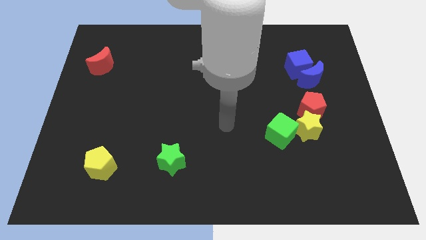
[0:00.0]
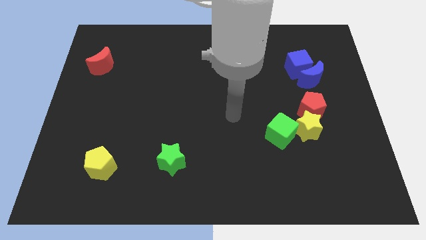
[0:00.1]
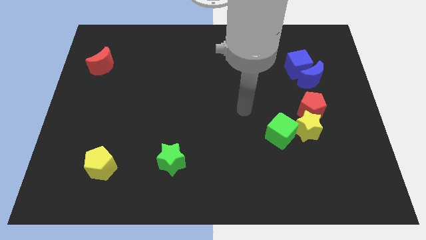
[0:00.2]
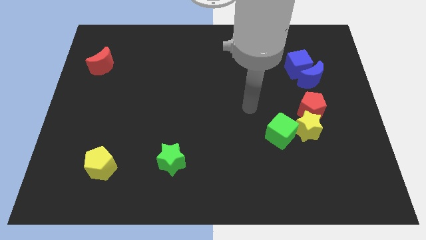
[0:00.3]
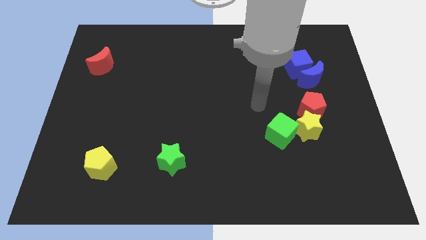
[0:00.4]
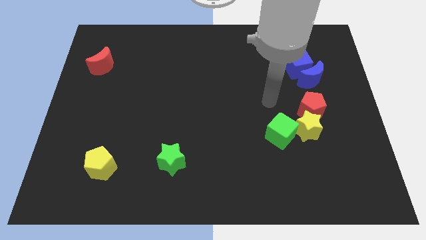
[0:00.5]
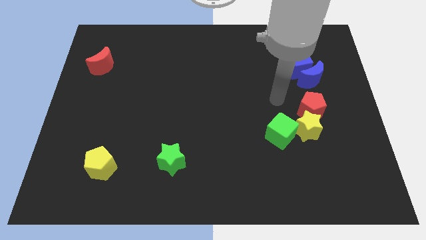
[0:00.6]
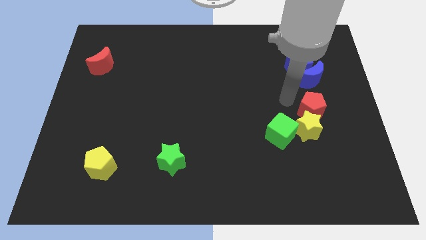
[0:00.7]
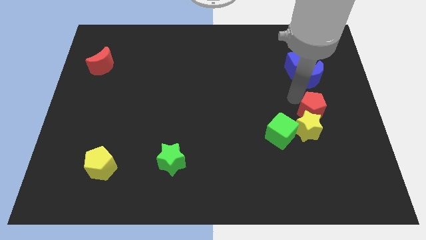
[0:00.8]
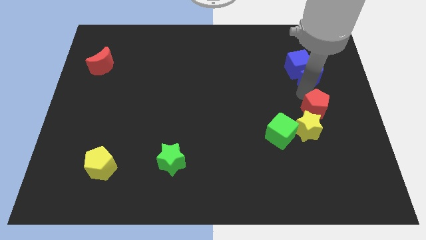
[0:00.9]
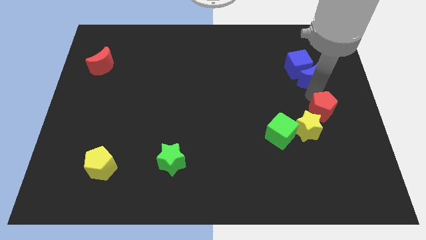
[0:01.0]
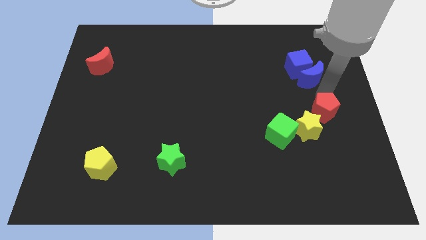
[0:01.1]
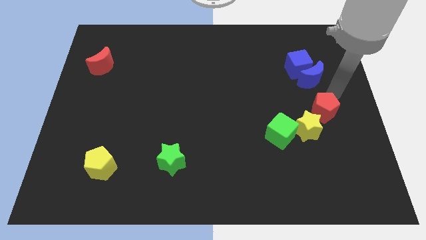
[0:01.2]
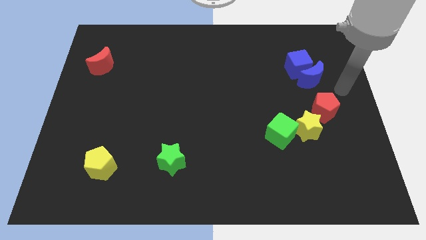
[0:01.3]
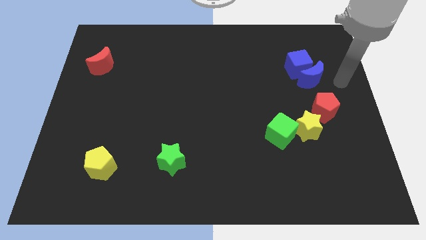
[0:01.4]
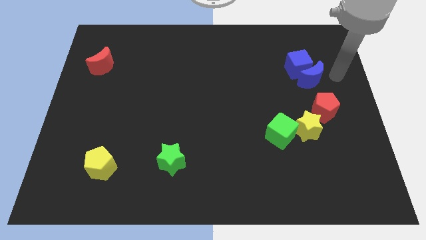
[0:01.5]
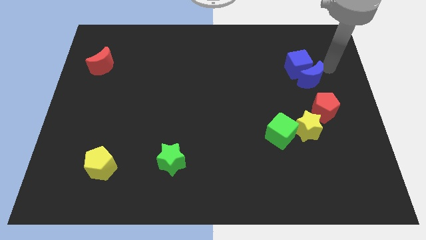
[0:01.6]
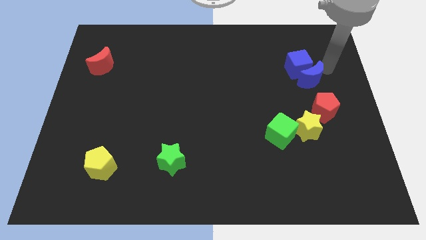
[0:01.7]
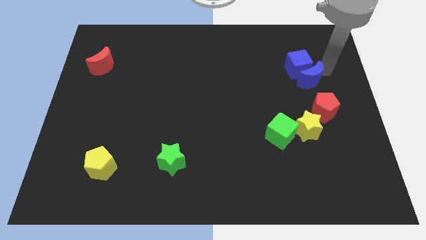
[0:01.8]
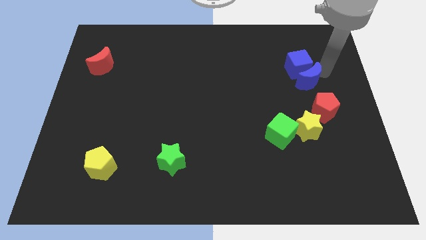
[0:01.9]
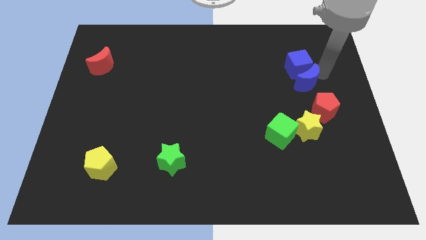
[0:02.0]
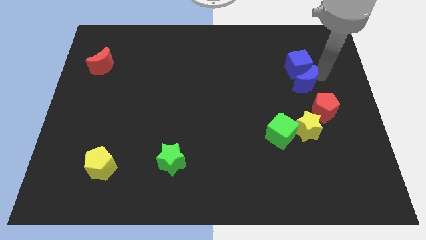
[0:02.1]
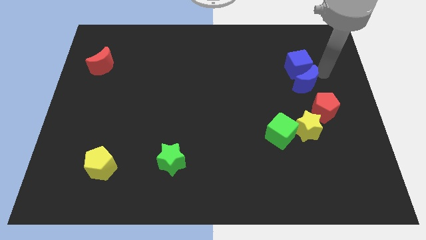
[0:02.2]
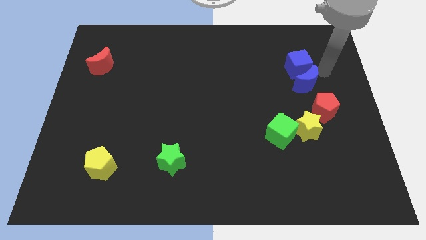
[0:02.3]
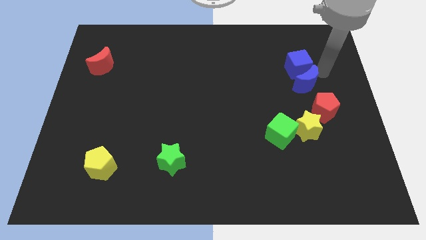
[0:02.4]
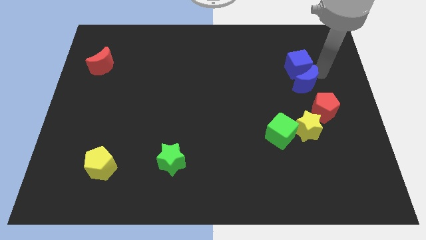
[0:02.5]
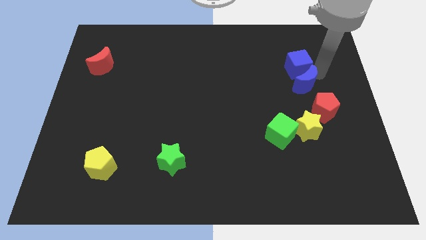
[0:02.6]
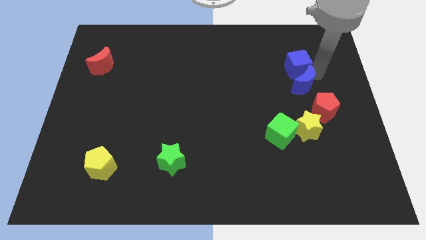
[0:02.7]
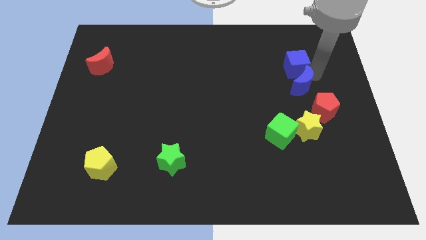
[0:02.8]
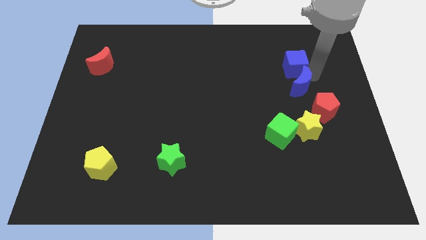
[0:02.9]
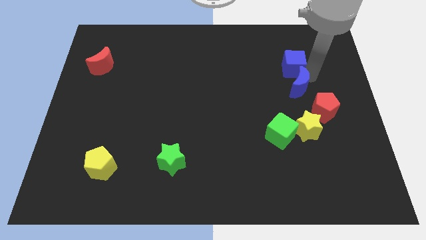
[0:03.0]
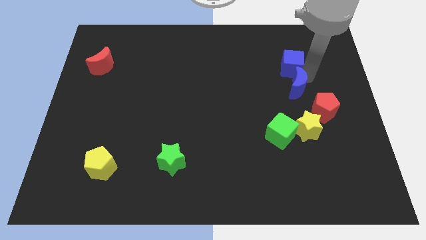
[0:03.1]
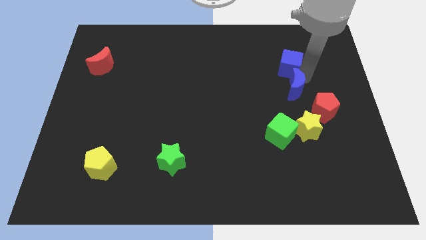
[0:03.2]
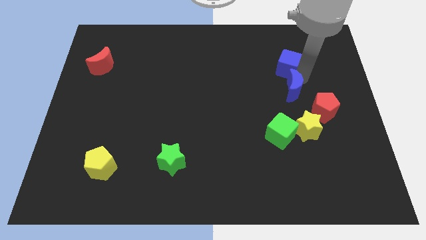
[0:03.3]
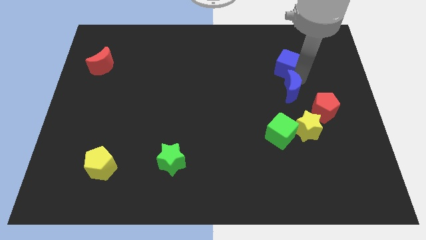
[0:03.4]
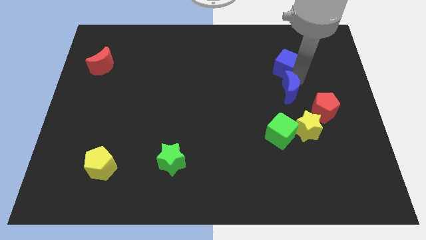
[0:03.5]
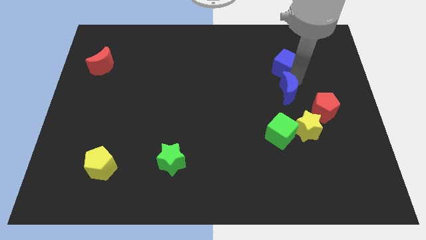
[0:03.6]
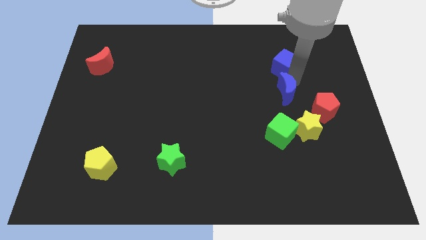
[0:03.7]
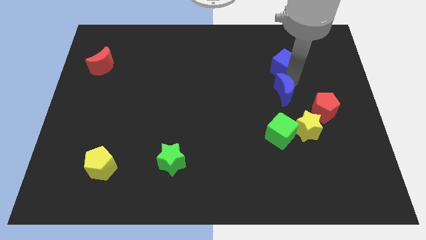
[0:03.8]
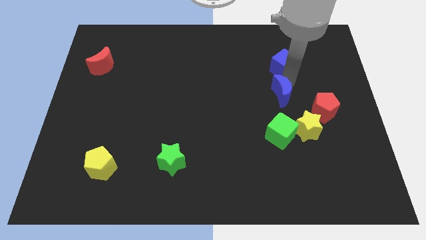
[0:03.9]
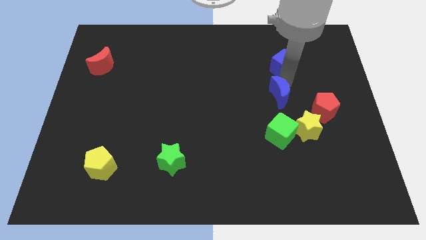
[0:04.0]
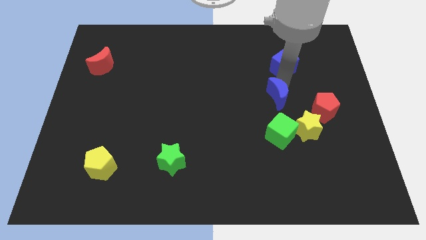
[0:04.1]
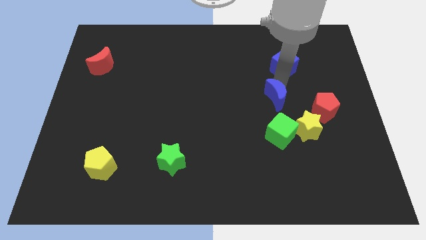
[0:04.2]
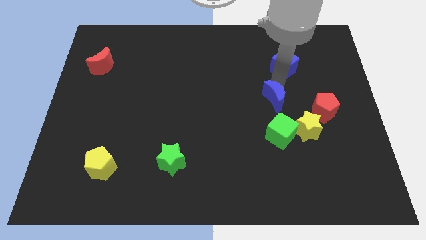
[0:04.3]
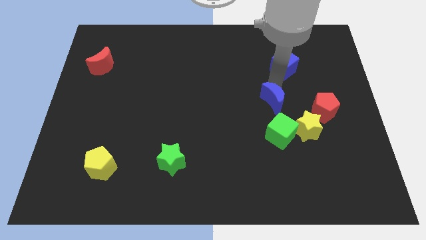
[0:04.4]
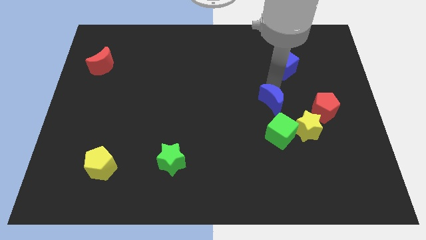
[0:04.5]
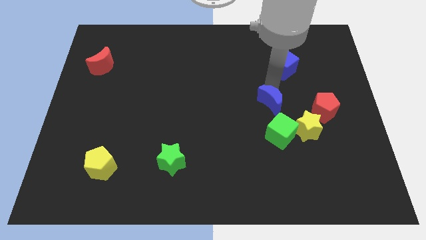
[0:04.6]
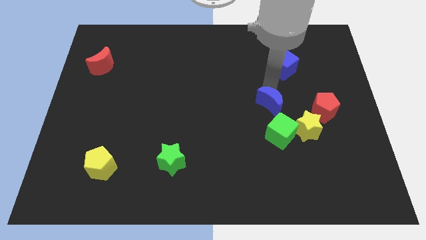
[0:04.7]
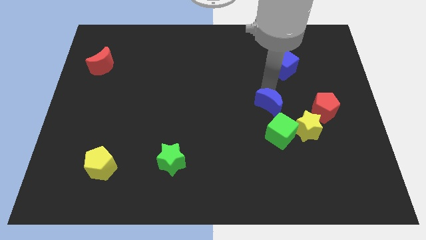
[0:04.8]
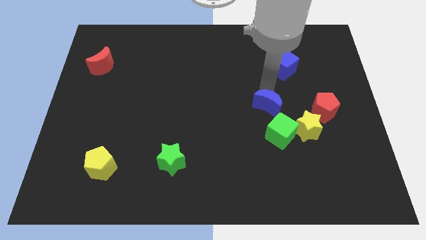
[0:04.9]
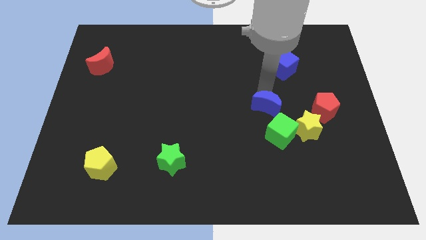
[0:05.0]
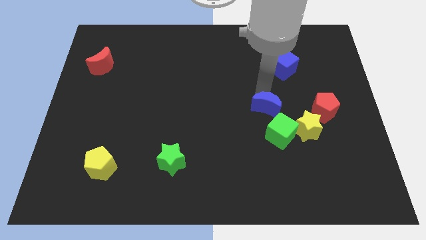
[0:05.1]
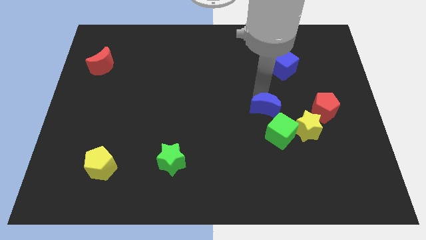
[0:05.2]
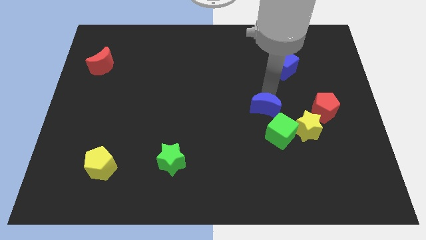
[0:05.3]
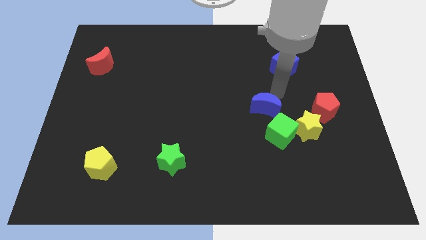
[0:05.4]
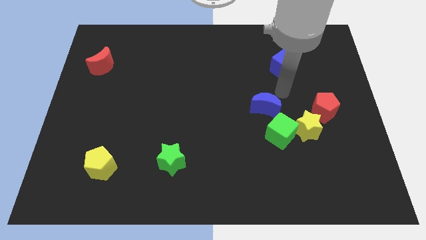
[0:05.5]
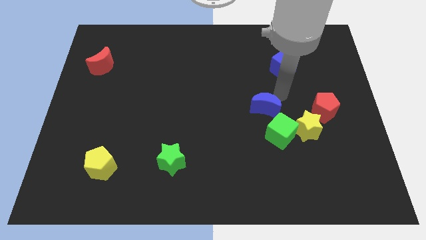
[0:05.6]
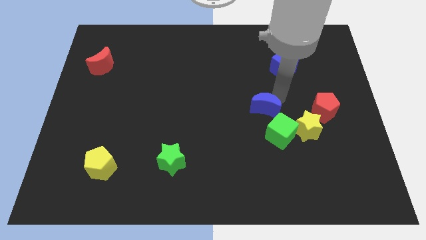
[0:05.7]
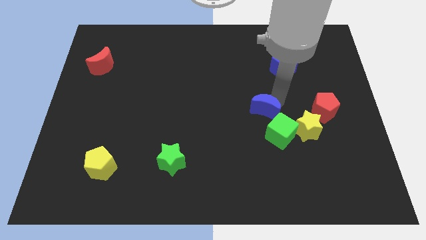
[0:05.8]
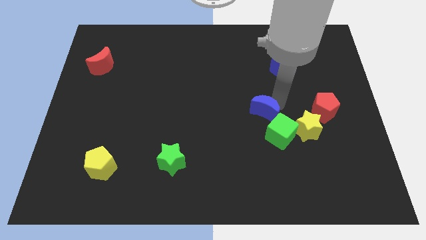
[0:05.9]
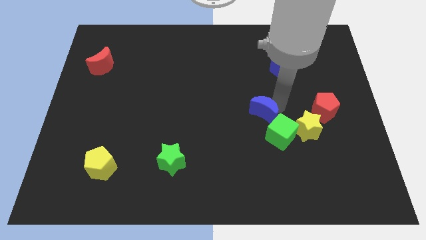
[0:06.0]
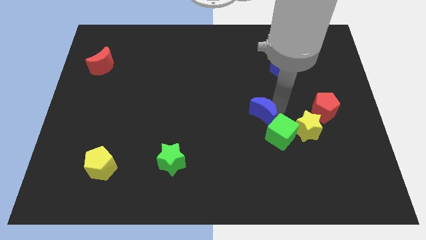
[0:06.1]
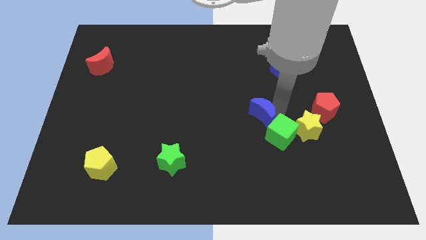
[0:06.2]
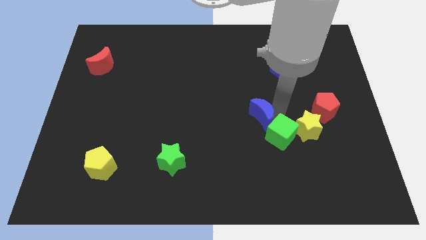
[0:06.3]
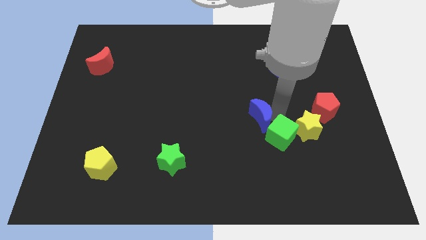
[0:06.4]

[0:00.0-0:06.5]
push the blue moon just left of the green cube
